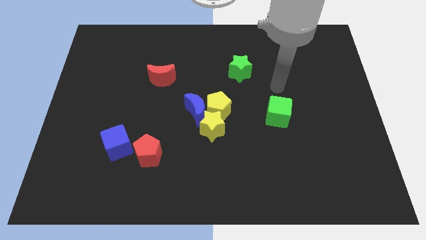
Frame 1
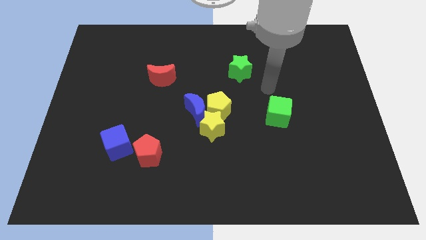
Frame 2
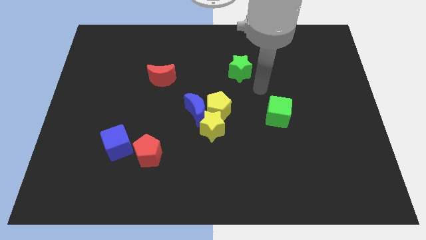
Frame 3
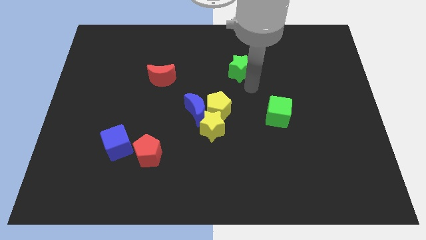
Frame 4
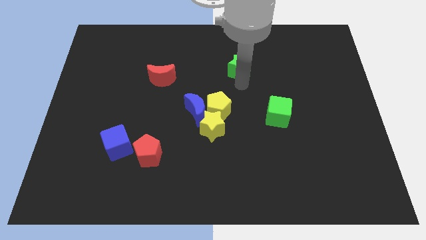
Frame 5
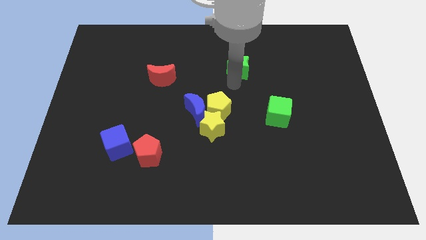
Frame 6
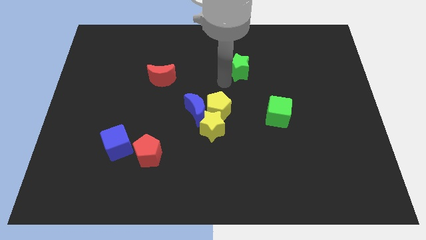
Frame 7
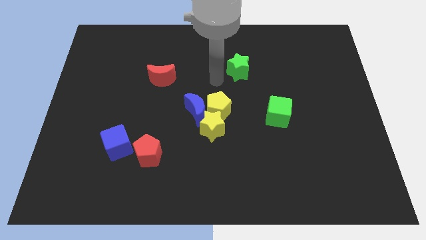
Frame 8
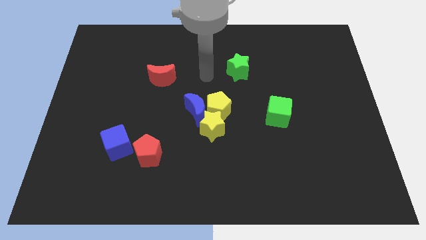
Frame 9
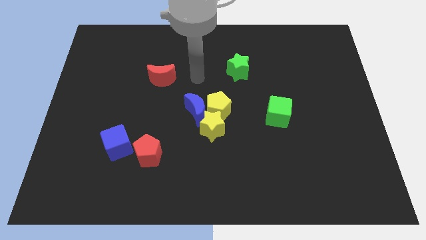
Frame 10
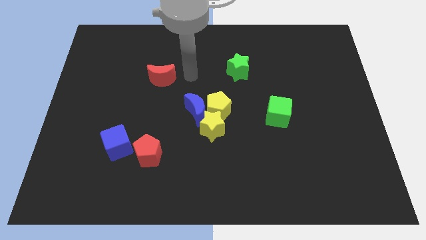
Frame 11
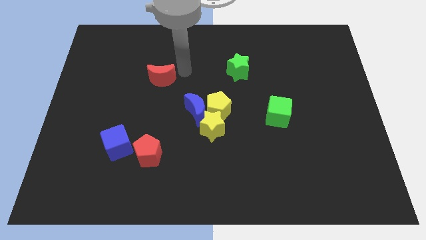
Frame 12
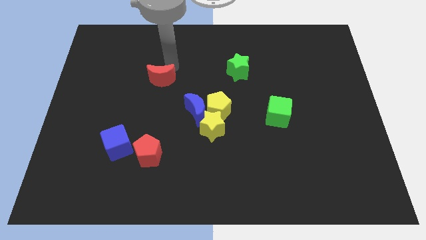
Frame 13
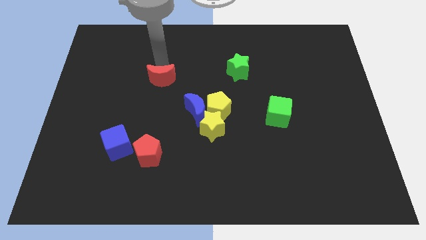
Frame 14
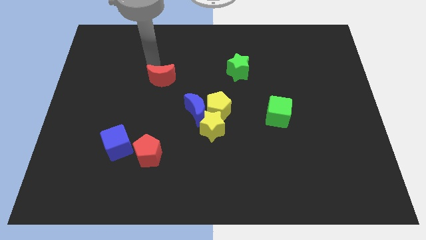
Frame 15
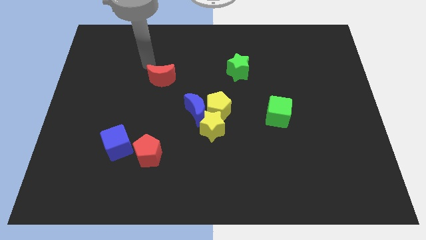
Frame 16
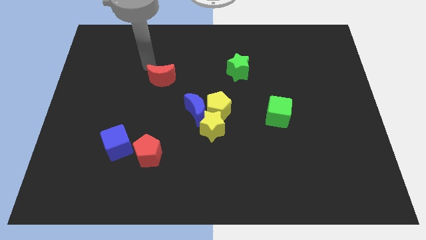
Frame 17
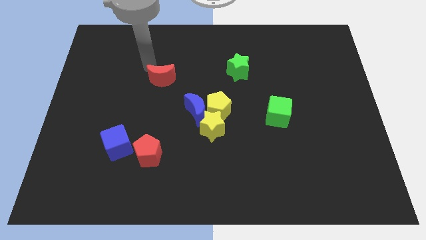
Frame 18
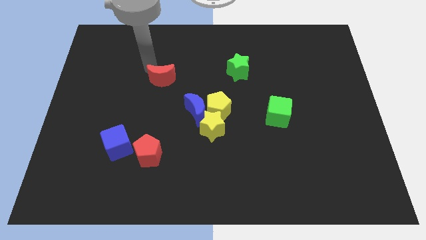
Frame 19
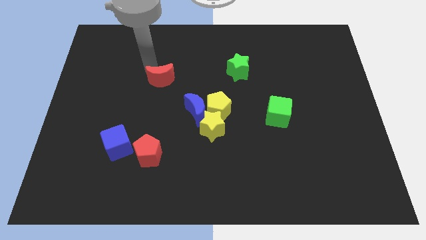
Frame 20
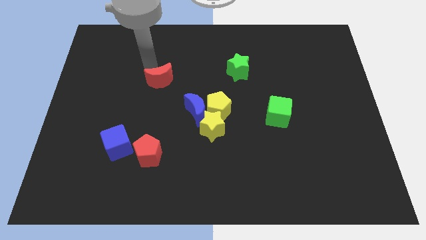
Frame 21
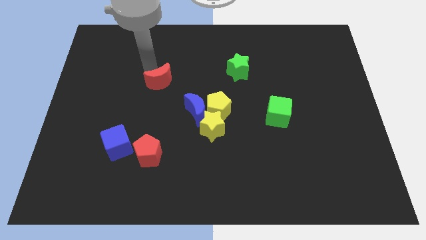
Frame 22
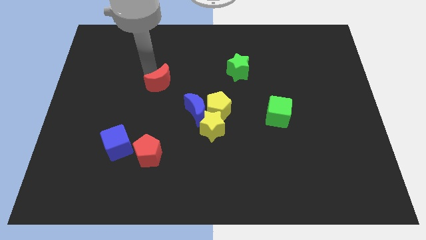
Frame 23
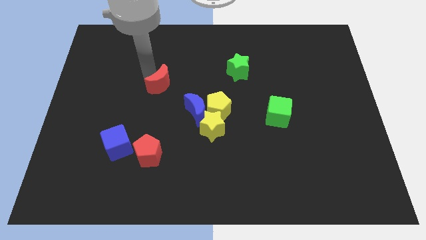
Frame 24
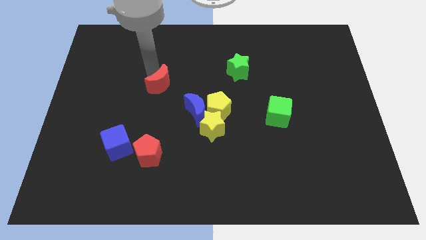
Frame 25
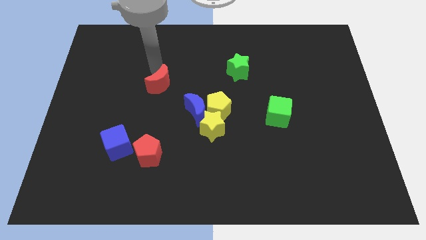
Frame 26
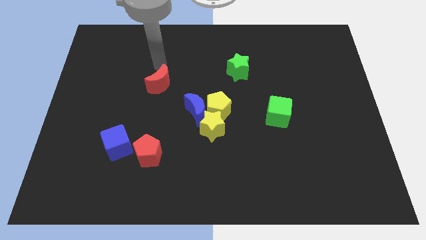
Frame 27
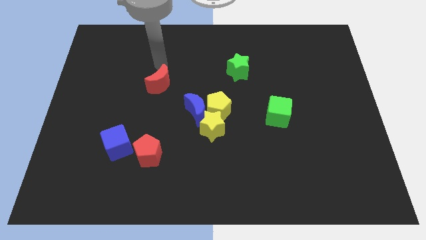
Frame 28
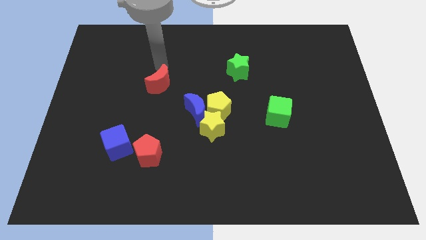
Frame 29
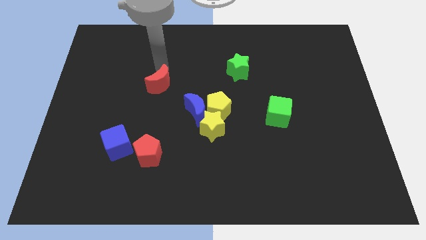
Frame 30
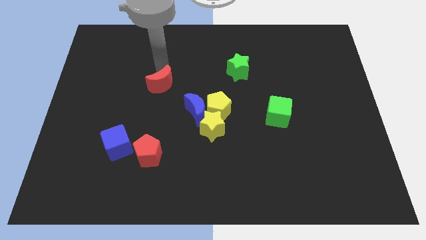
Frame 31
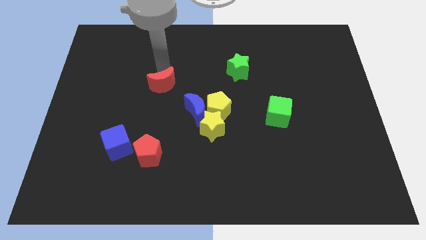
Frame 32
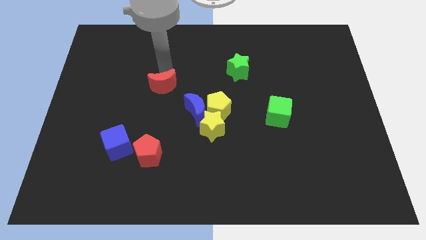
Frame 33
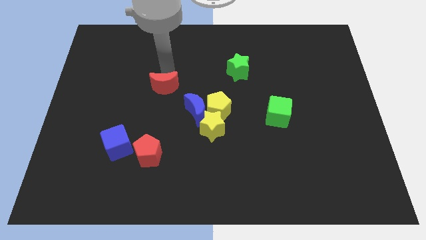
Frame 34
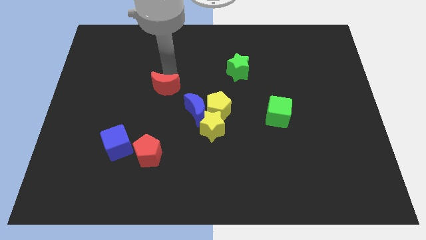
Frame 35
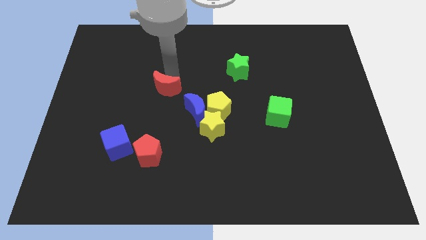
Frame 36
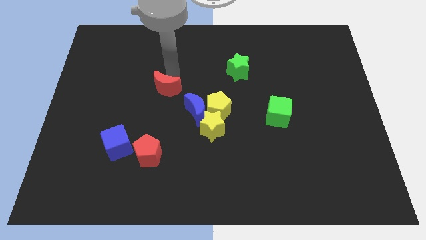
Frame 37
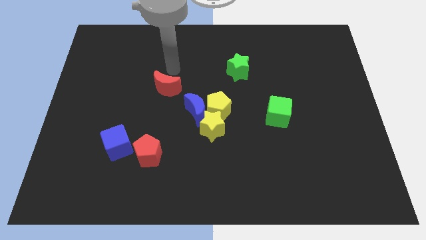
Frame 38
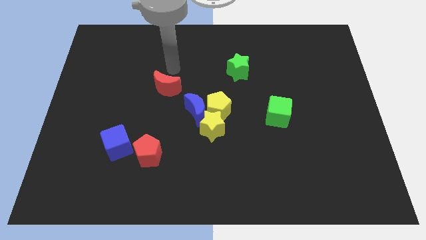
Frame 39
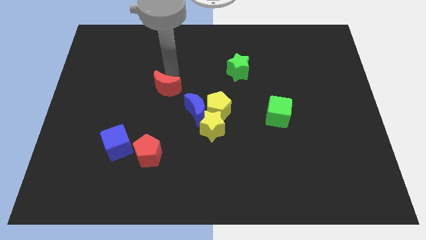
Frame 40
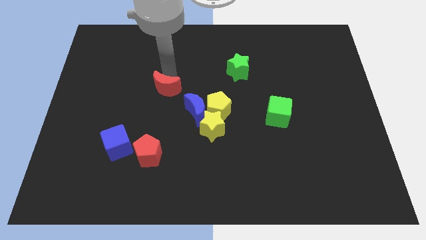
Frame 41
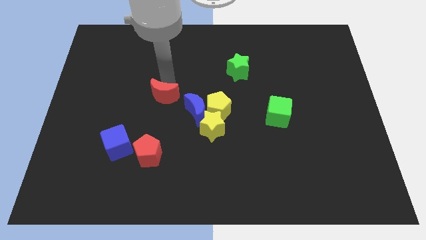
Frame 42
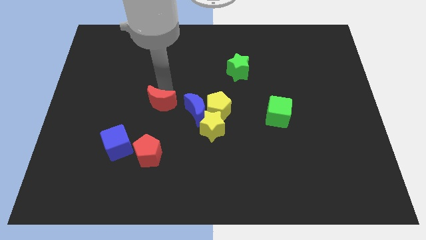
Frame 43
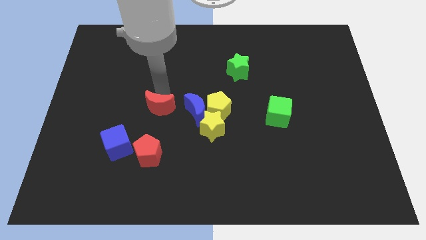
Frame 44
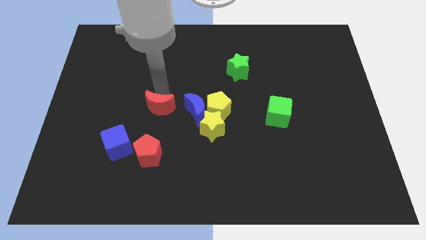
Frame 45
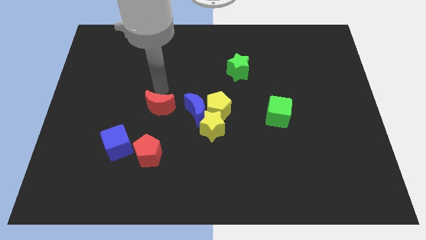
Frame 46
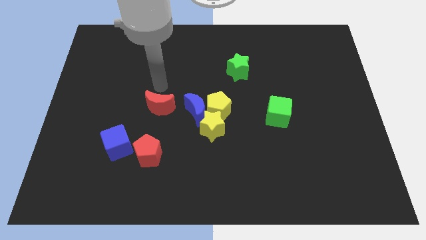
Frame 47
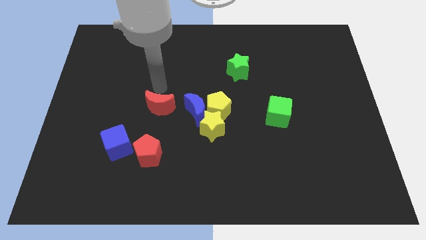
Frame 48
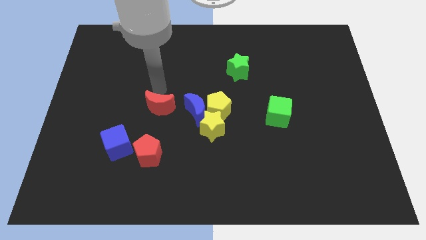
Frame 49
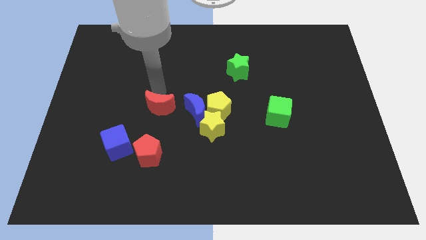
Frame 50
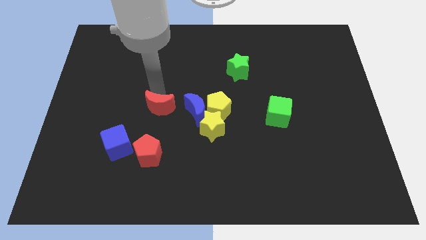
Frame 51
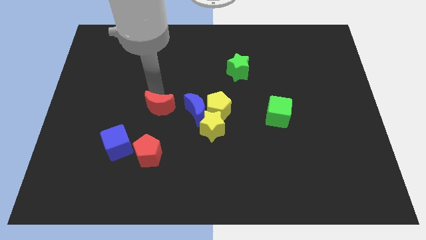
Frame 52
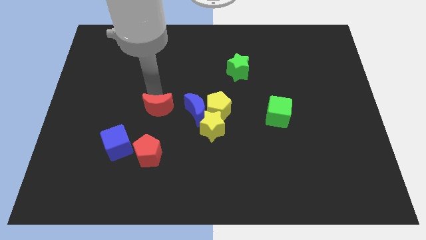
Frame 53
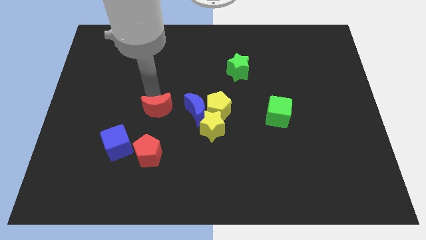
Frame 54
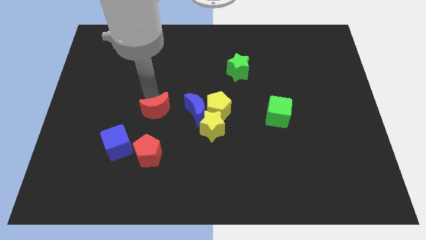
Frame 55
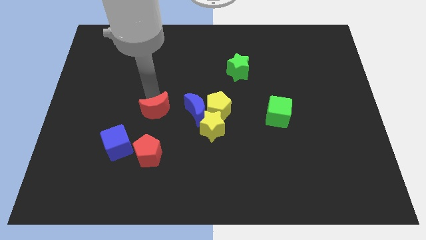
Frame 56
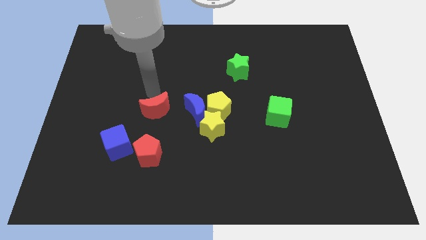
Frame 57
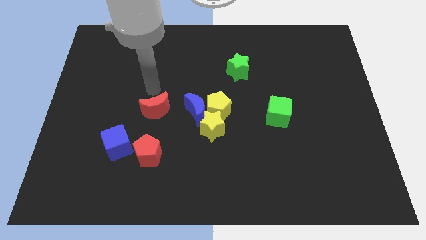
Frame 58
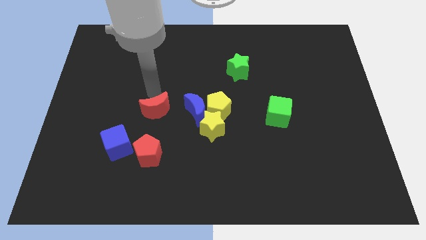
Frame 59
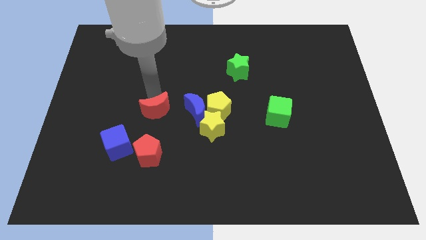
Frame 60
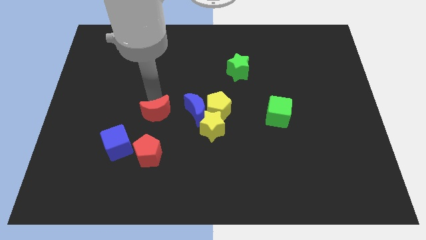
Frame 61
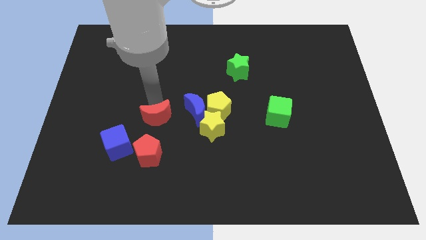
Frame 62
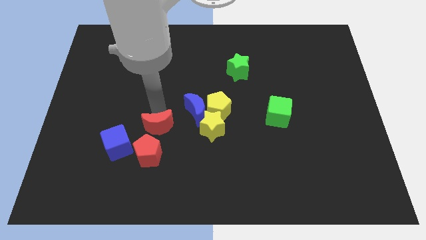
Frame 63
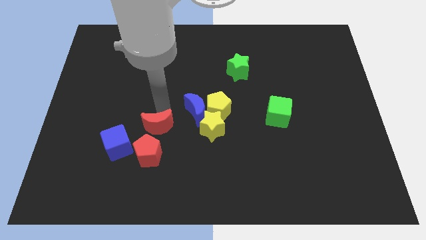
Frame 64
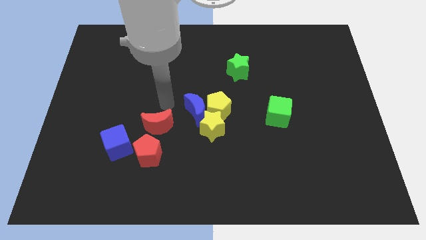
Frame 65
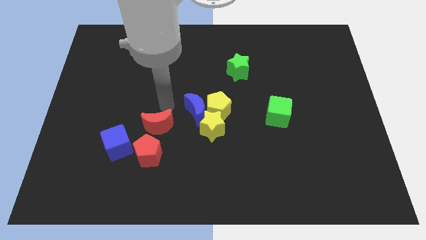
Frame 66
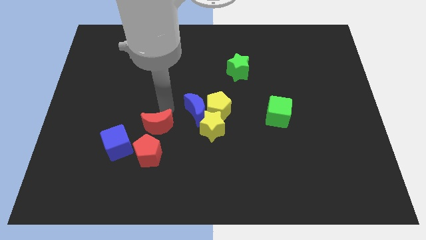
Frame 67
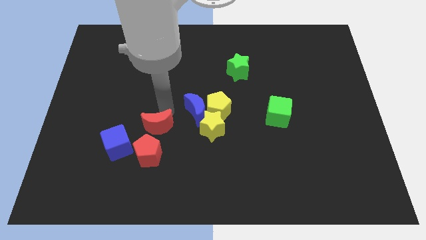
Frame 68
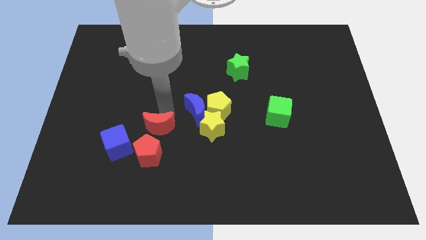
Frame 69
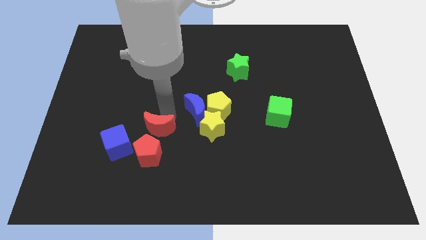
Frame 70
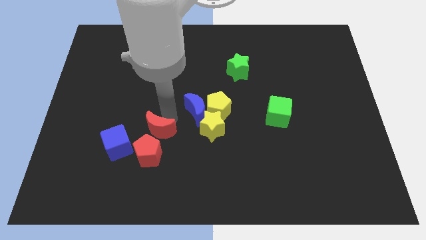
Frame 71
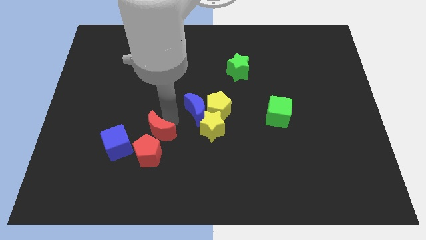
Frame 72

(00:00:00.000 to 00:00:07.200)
put the red moon close to the red pentagon
